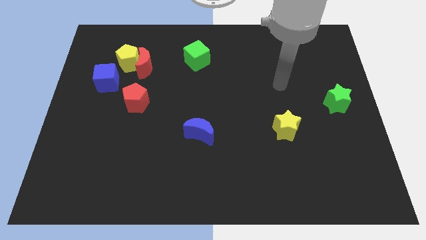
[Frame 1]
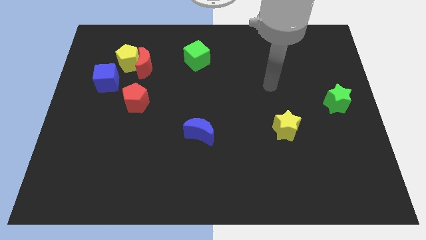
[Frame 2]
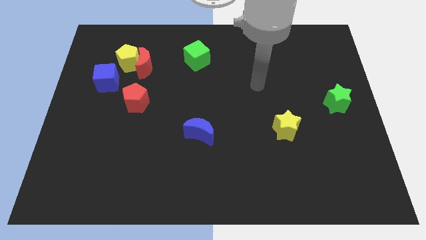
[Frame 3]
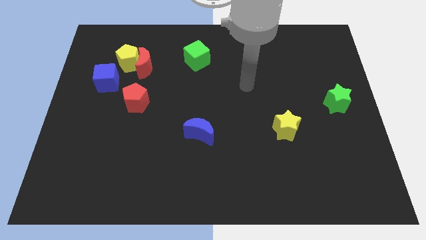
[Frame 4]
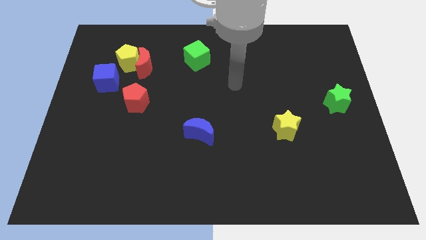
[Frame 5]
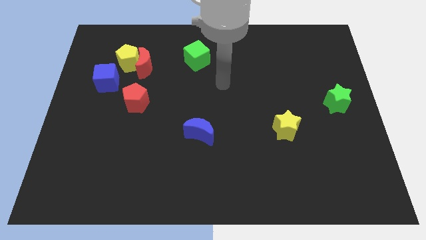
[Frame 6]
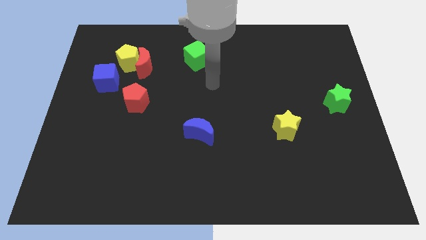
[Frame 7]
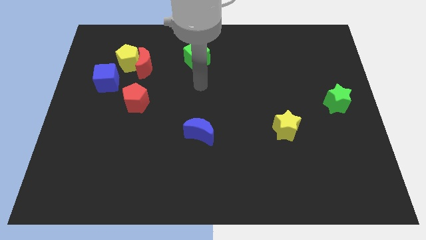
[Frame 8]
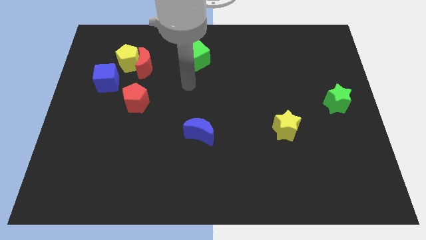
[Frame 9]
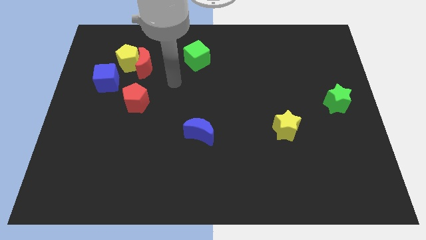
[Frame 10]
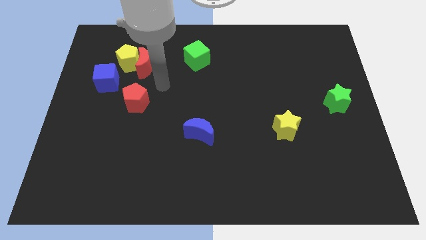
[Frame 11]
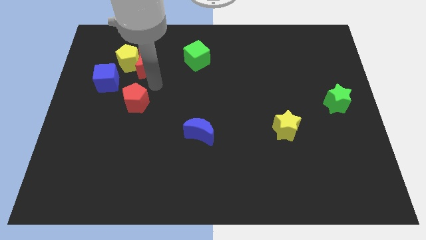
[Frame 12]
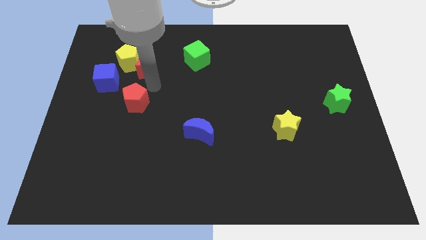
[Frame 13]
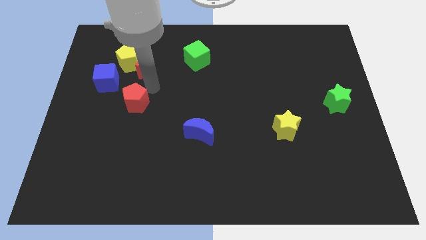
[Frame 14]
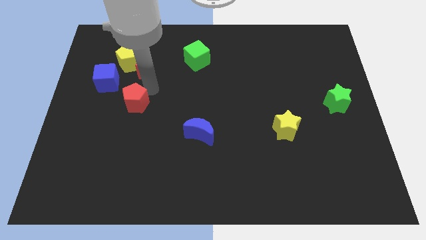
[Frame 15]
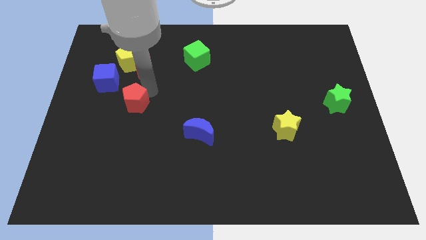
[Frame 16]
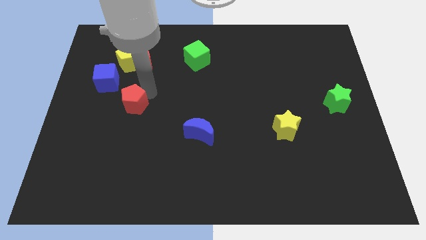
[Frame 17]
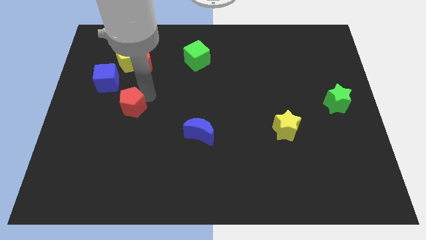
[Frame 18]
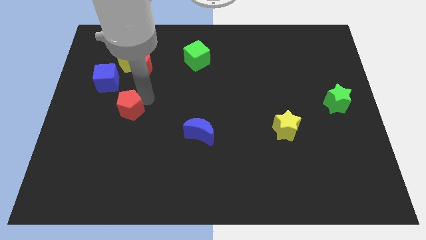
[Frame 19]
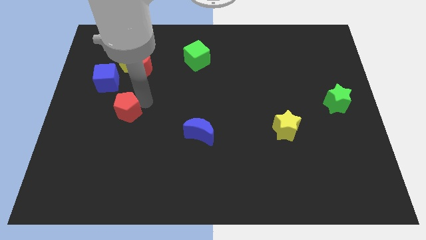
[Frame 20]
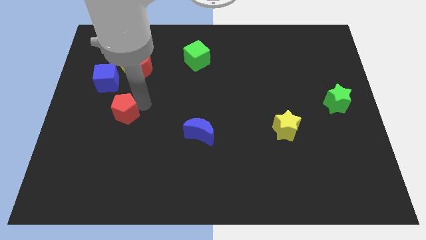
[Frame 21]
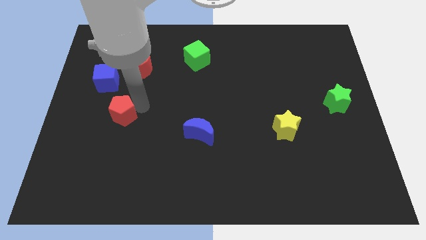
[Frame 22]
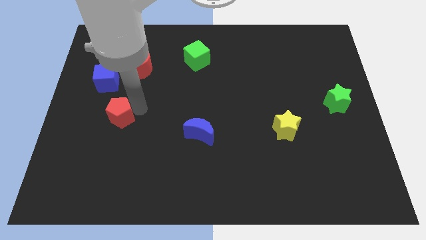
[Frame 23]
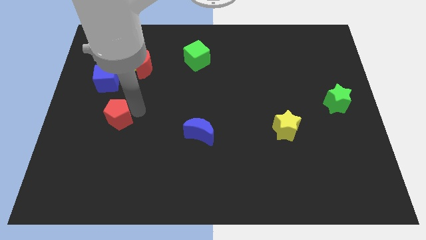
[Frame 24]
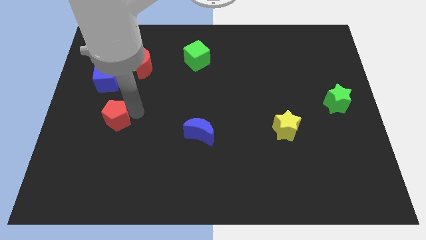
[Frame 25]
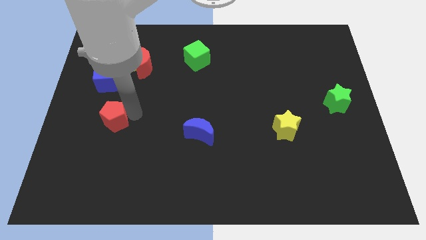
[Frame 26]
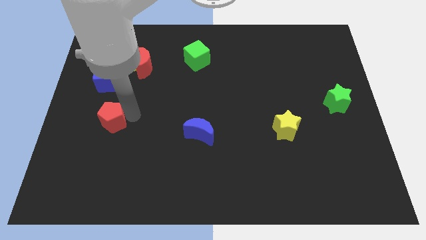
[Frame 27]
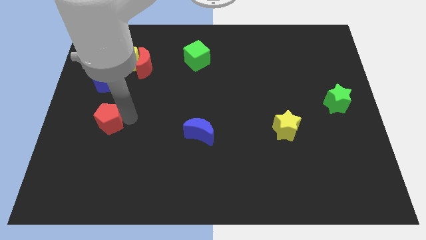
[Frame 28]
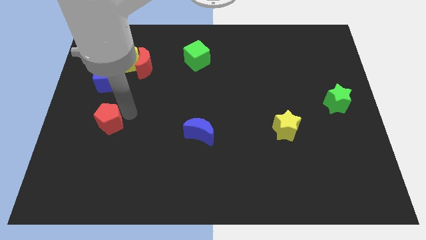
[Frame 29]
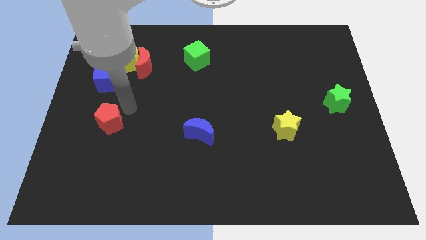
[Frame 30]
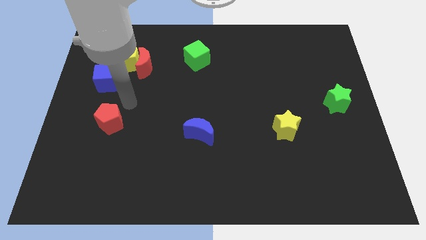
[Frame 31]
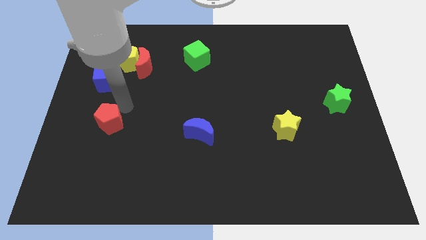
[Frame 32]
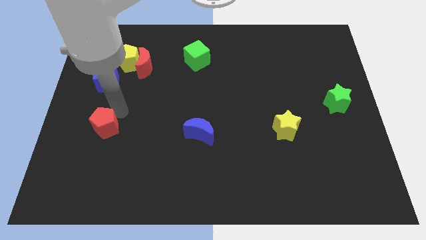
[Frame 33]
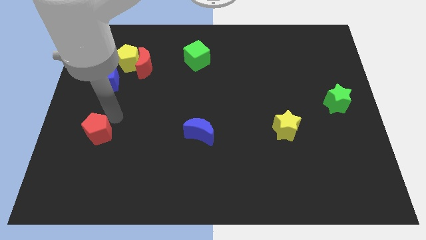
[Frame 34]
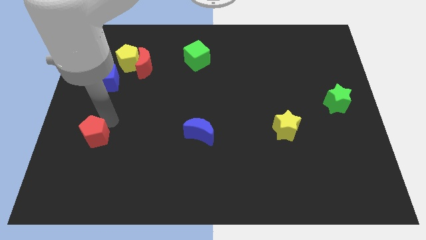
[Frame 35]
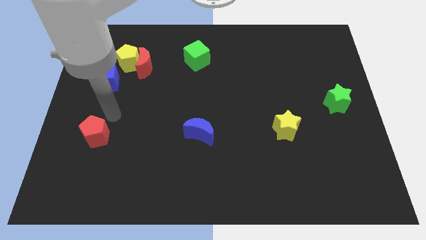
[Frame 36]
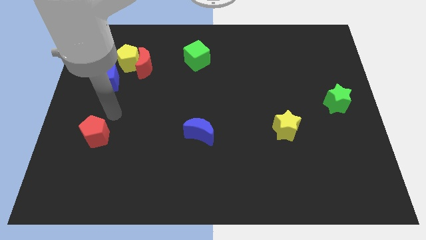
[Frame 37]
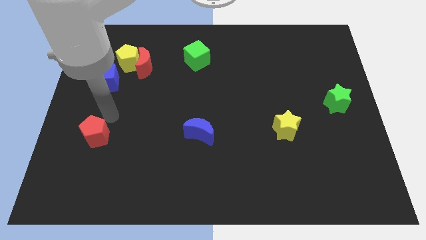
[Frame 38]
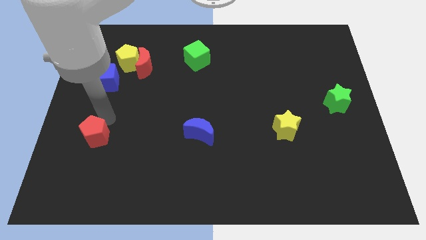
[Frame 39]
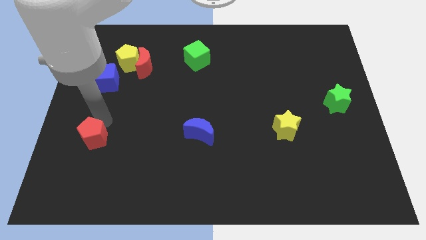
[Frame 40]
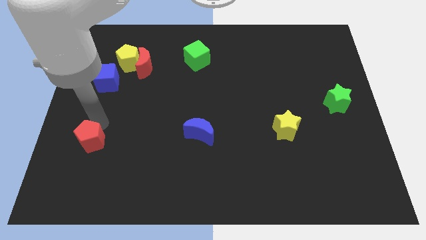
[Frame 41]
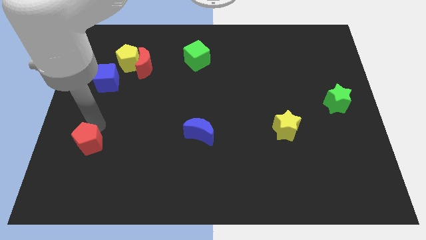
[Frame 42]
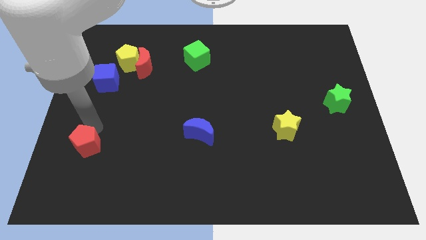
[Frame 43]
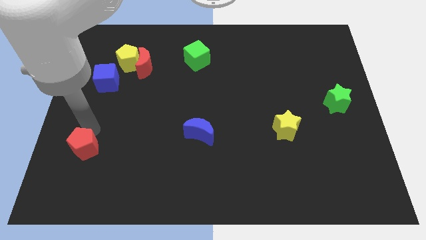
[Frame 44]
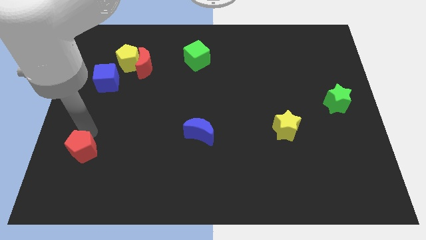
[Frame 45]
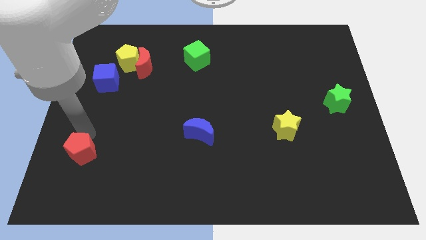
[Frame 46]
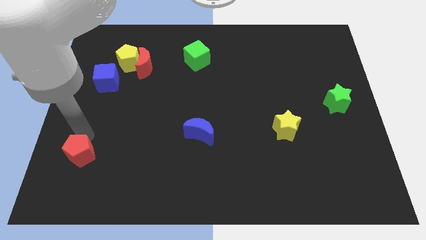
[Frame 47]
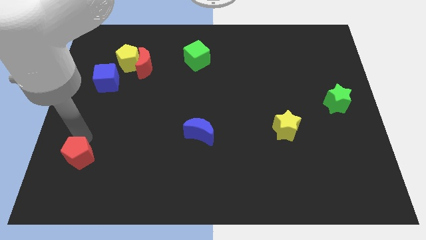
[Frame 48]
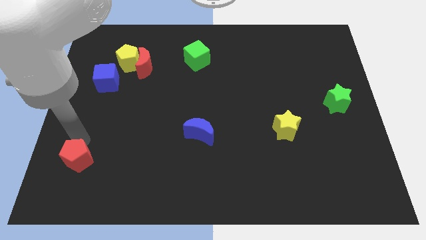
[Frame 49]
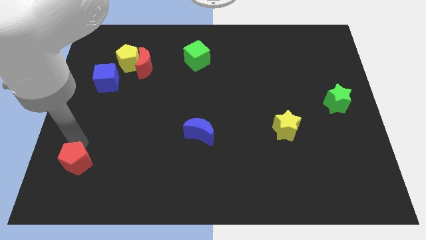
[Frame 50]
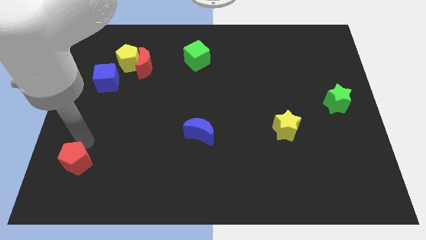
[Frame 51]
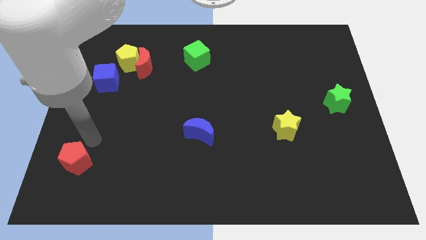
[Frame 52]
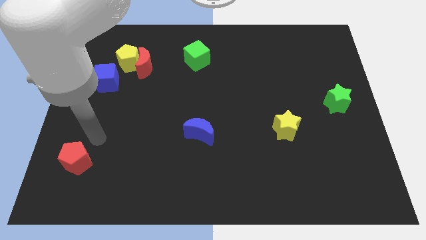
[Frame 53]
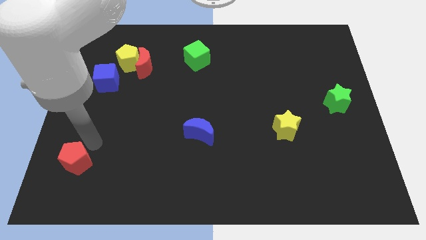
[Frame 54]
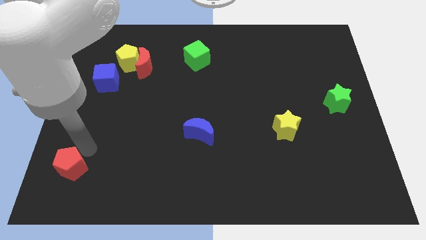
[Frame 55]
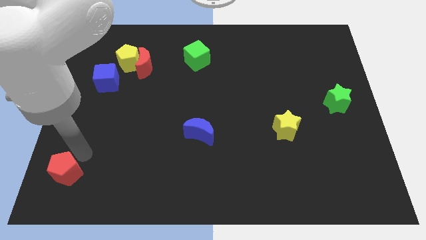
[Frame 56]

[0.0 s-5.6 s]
move the red pentagon to the lower left corner

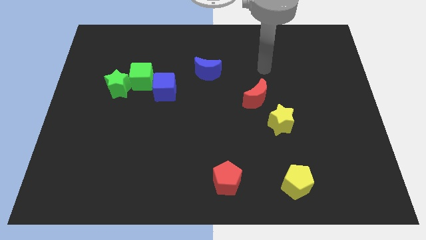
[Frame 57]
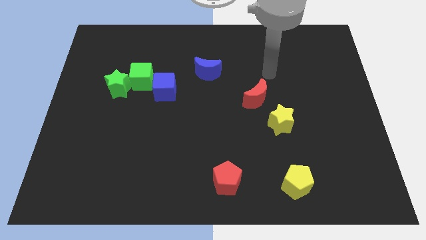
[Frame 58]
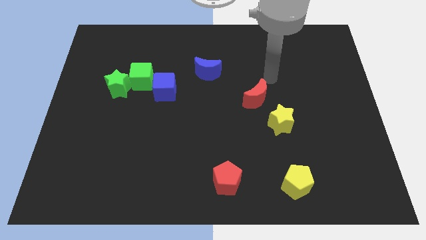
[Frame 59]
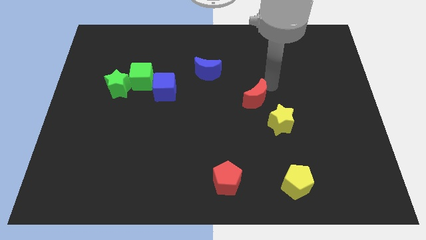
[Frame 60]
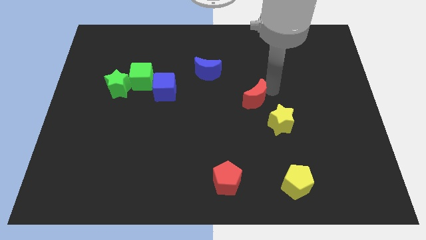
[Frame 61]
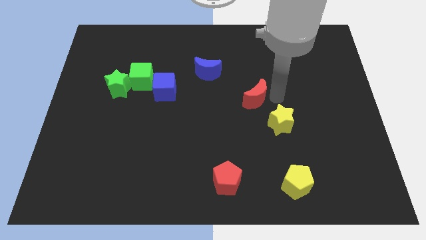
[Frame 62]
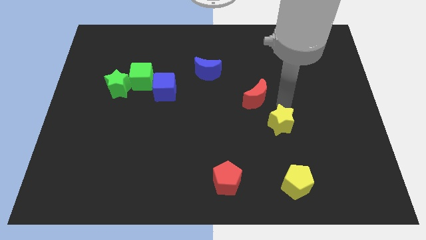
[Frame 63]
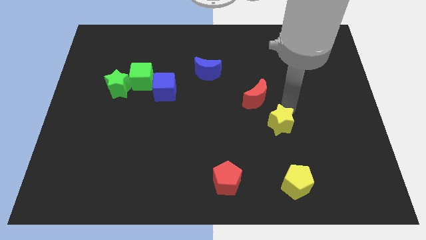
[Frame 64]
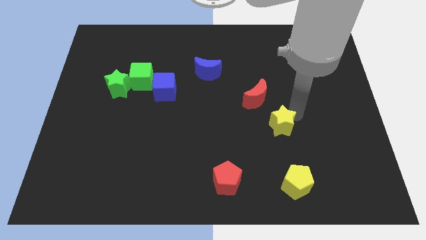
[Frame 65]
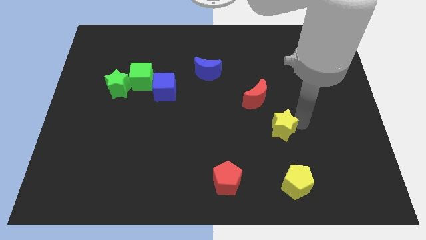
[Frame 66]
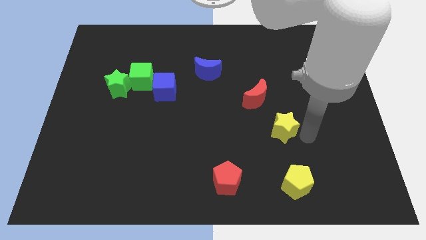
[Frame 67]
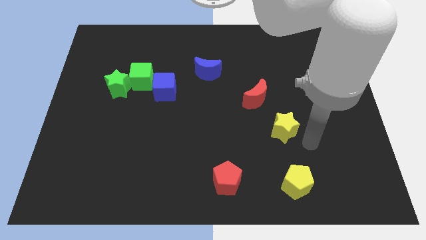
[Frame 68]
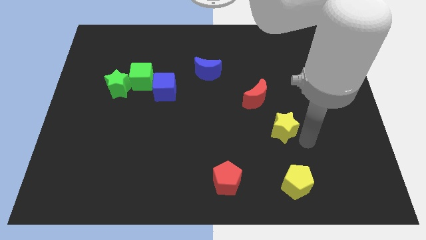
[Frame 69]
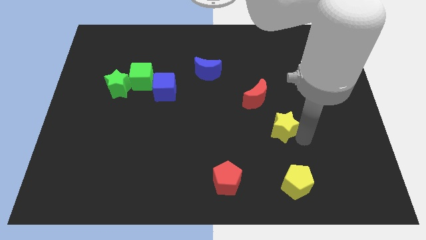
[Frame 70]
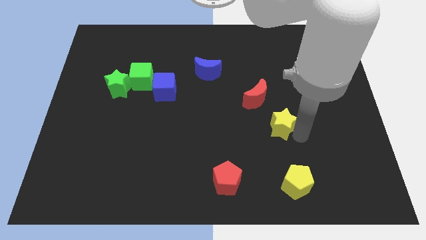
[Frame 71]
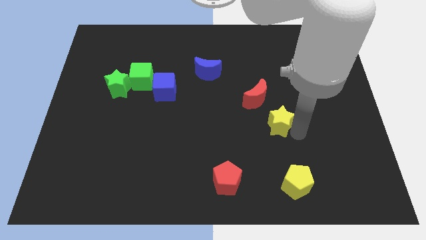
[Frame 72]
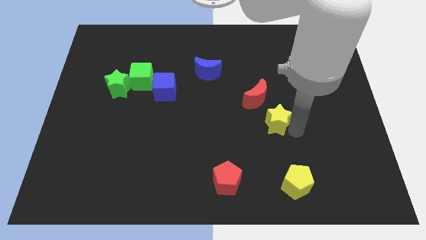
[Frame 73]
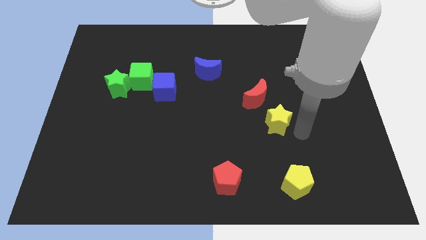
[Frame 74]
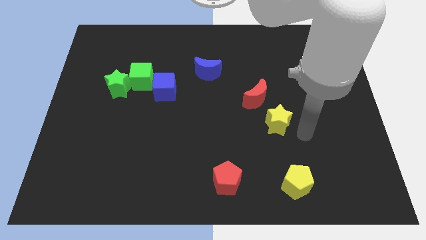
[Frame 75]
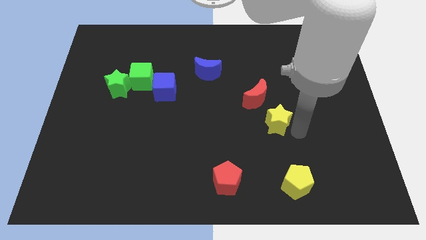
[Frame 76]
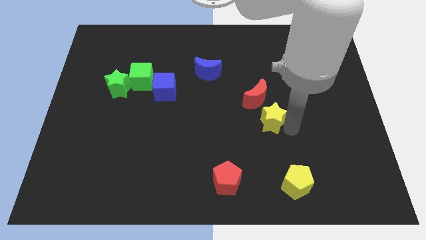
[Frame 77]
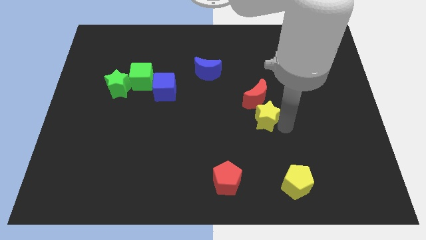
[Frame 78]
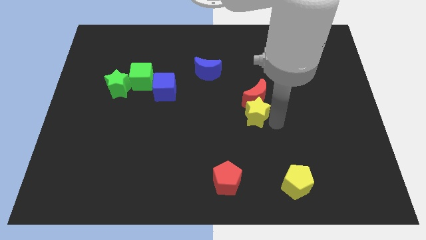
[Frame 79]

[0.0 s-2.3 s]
slide the yellow star to the center
